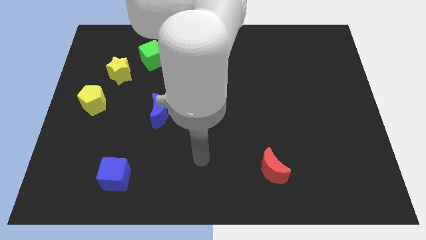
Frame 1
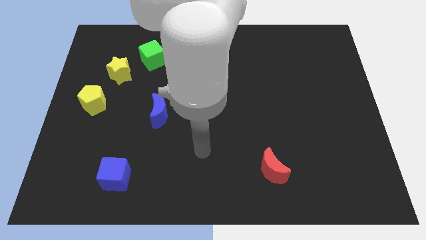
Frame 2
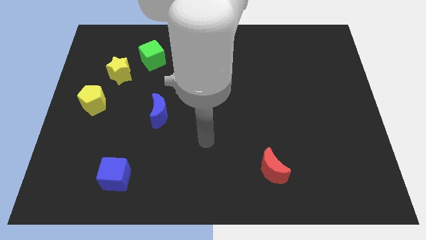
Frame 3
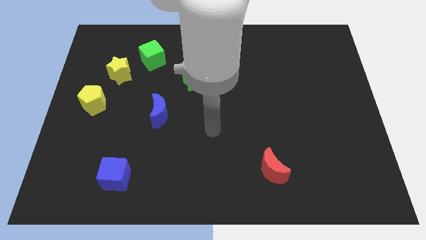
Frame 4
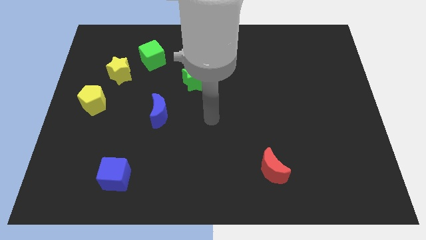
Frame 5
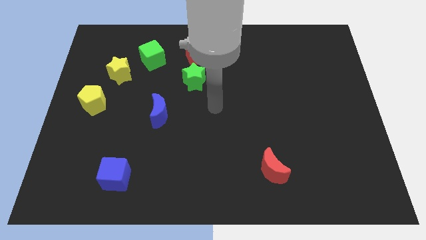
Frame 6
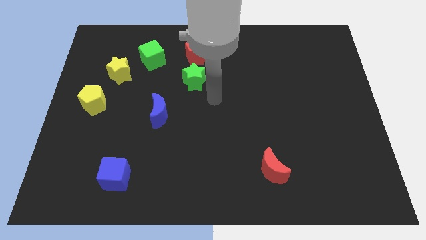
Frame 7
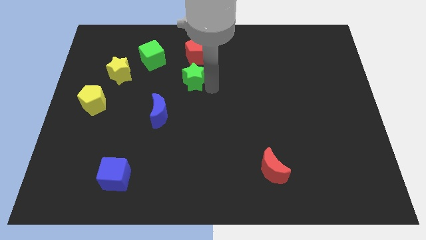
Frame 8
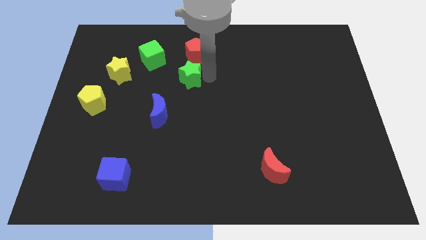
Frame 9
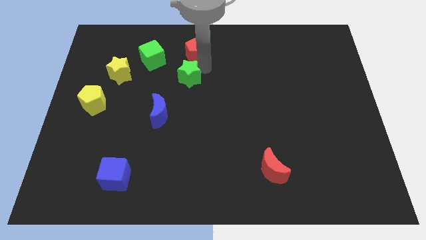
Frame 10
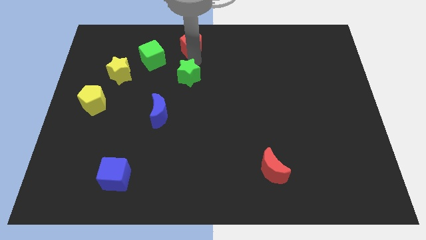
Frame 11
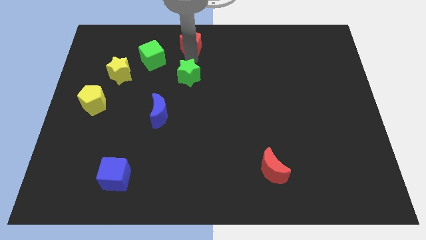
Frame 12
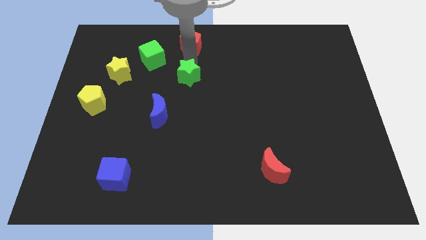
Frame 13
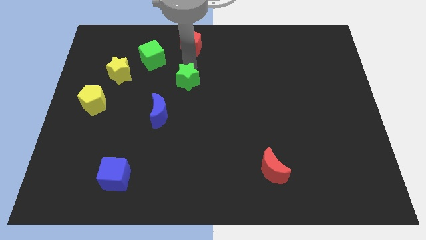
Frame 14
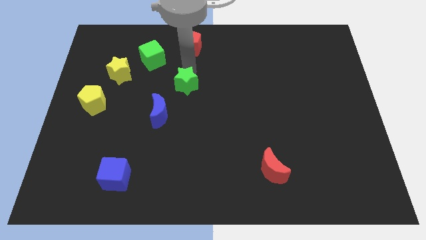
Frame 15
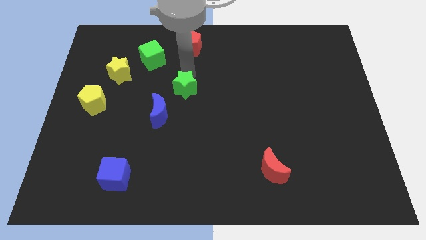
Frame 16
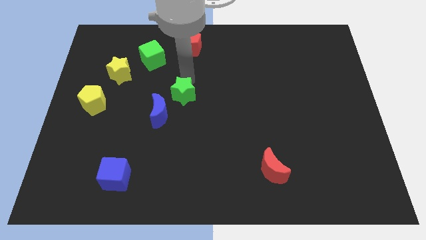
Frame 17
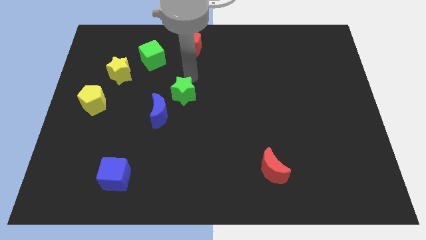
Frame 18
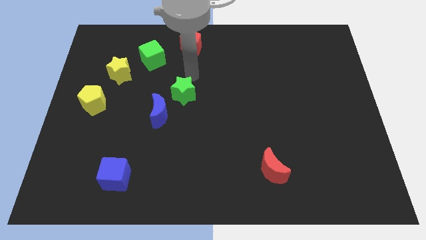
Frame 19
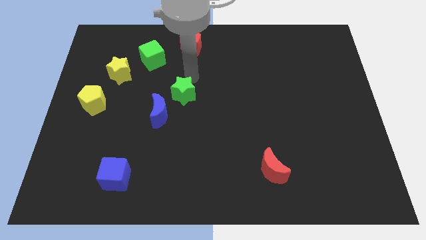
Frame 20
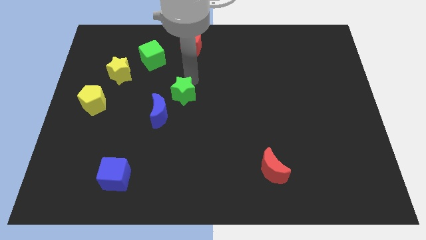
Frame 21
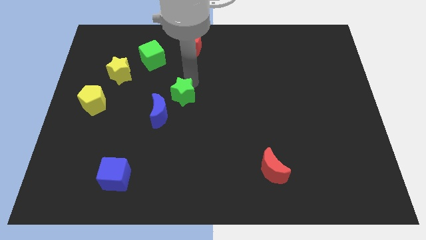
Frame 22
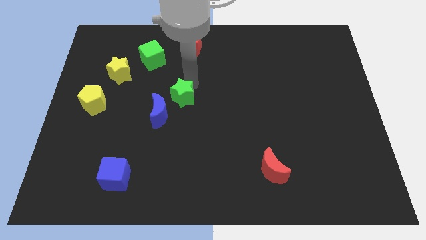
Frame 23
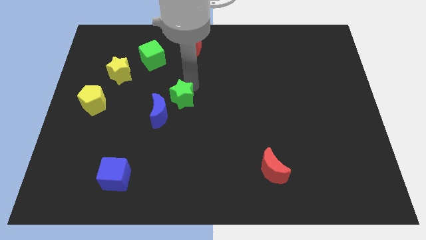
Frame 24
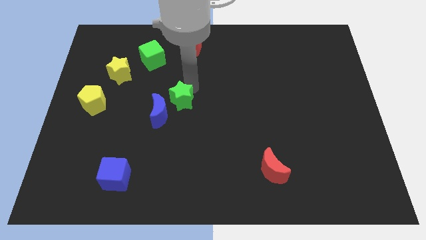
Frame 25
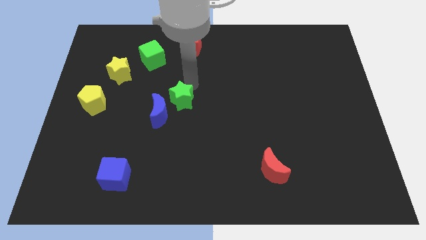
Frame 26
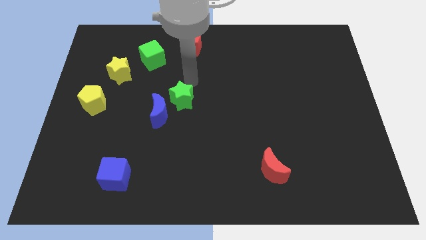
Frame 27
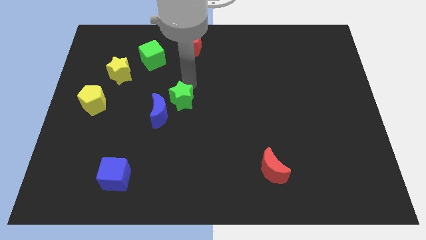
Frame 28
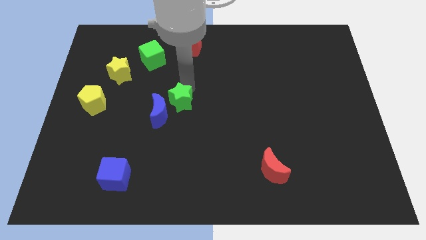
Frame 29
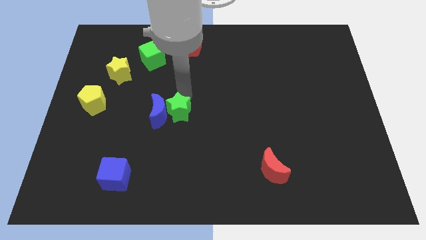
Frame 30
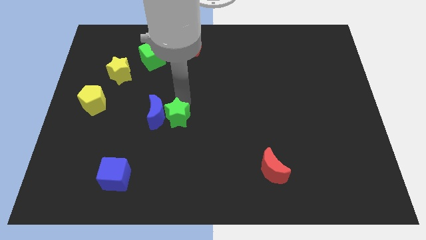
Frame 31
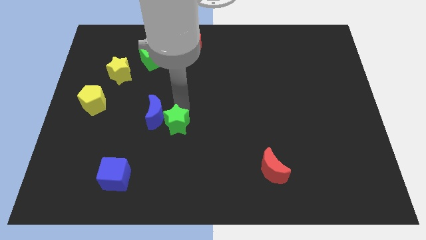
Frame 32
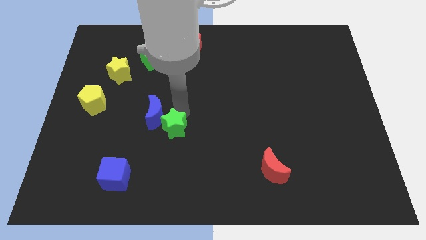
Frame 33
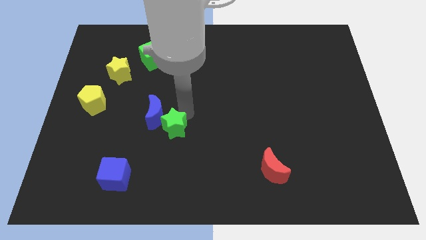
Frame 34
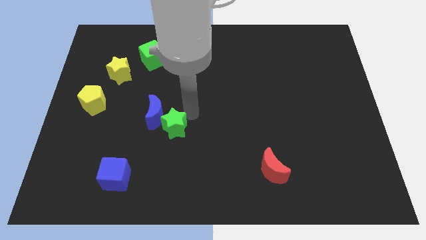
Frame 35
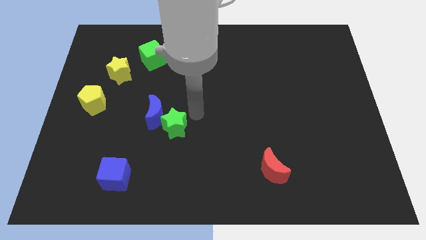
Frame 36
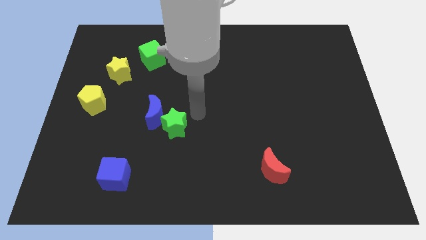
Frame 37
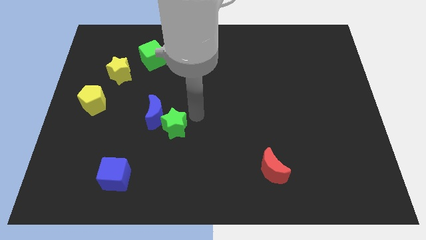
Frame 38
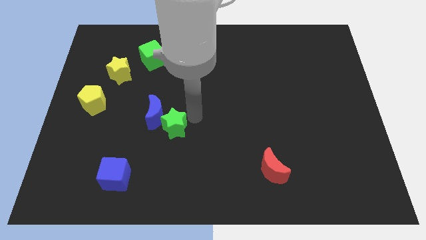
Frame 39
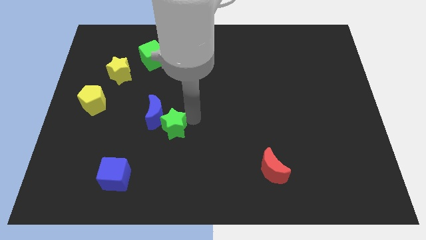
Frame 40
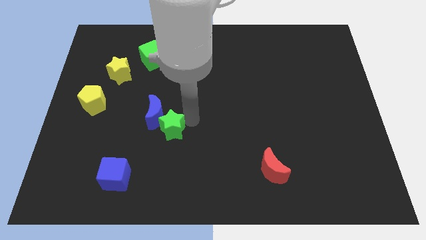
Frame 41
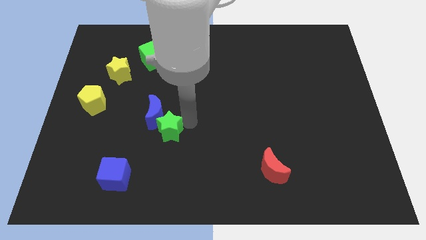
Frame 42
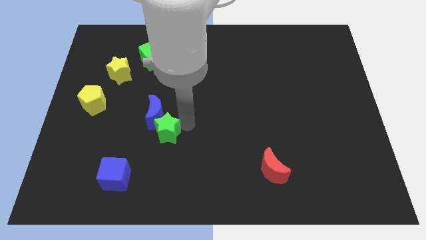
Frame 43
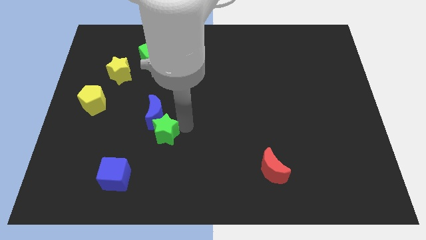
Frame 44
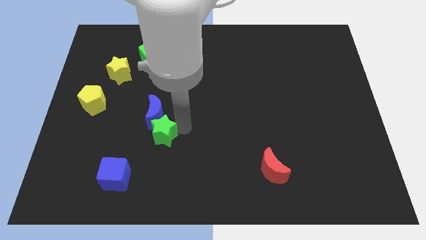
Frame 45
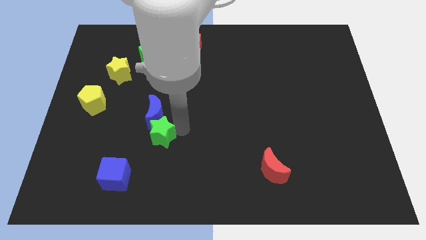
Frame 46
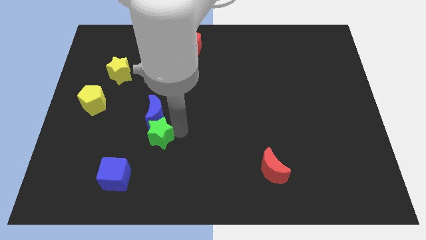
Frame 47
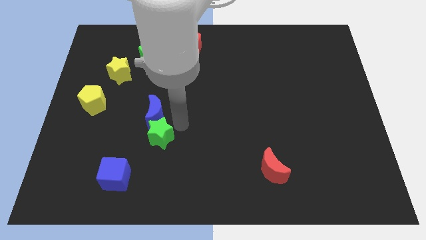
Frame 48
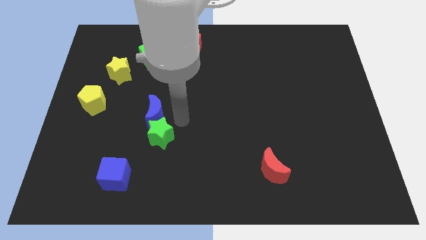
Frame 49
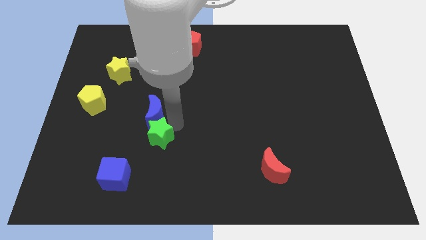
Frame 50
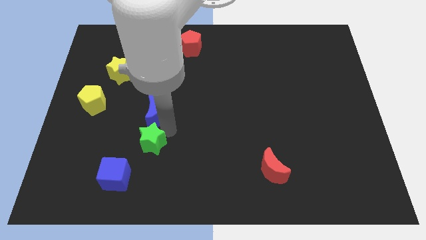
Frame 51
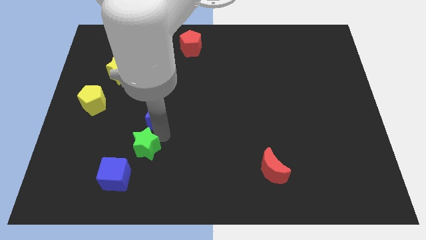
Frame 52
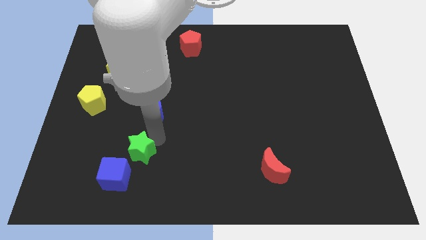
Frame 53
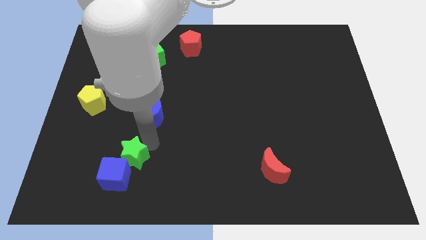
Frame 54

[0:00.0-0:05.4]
push the green star to the blue cube

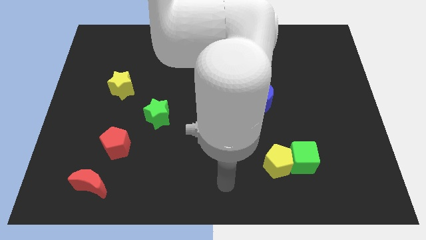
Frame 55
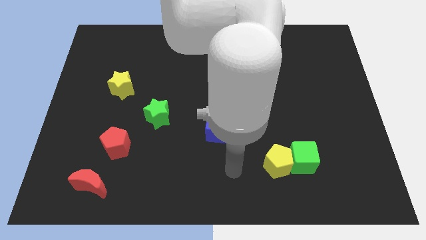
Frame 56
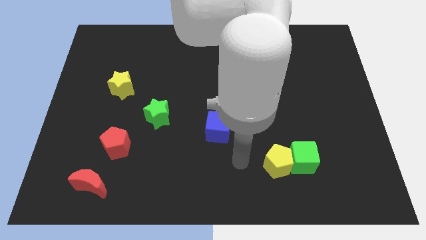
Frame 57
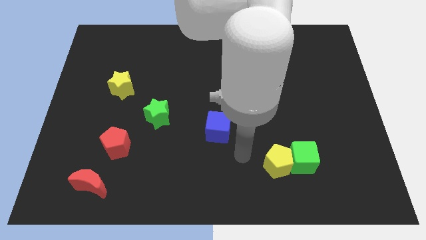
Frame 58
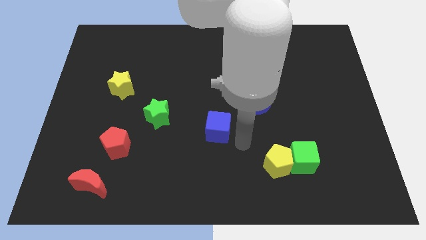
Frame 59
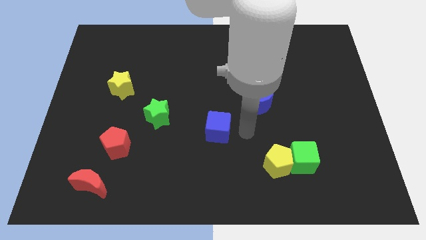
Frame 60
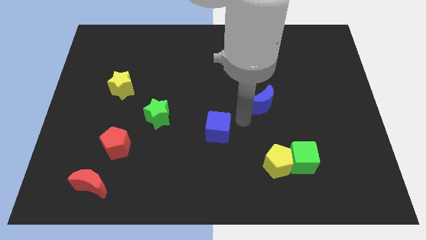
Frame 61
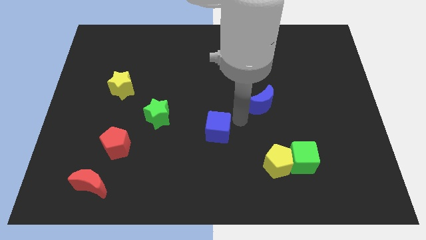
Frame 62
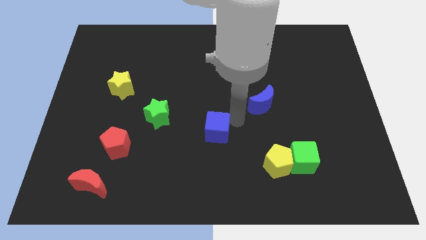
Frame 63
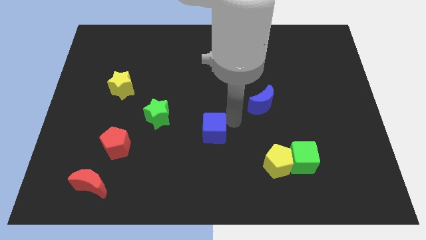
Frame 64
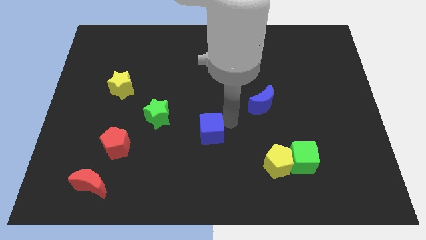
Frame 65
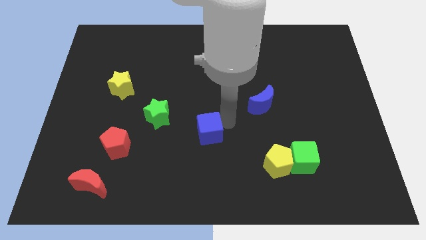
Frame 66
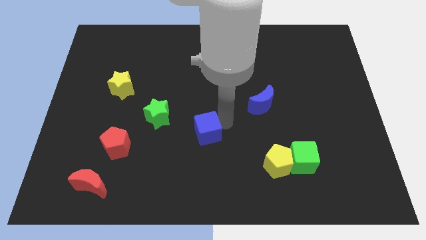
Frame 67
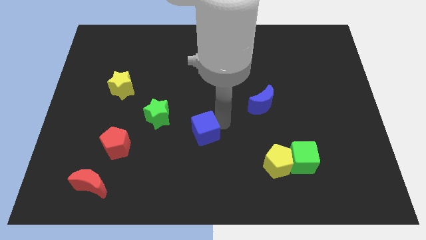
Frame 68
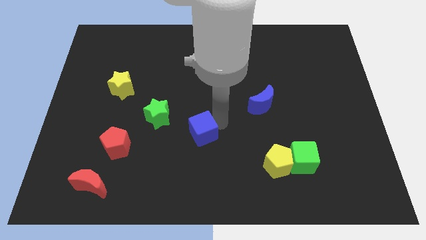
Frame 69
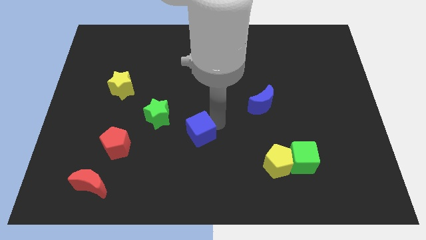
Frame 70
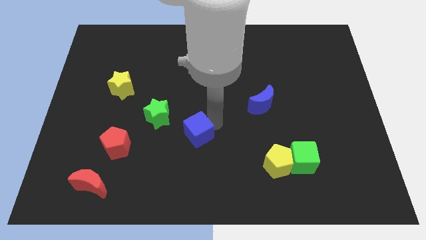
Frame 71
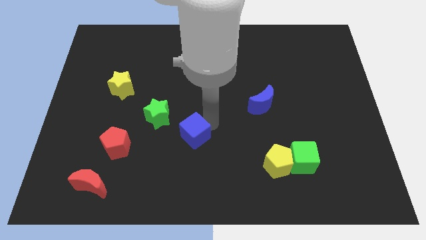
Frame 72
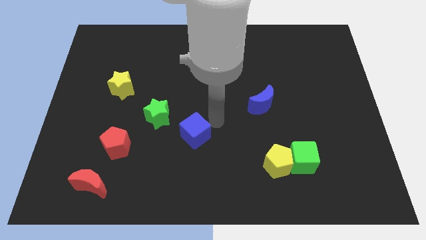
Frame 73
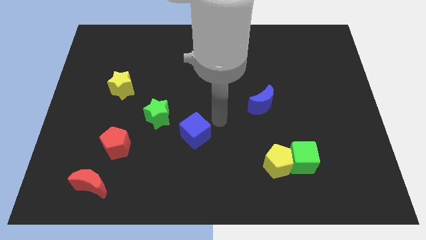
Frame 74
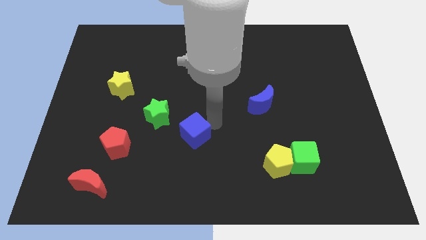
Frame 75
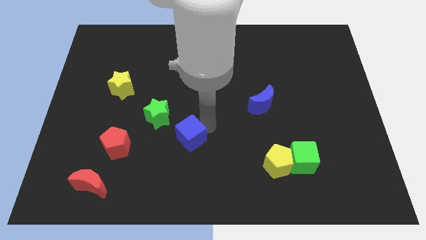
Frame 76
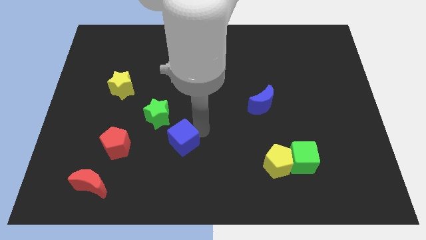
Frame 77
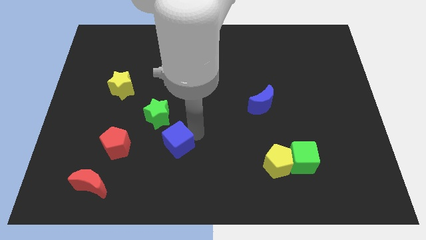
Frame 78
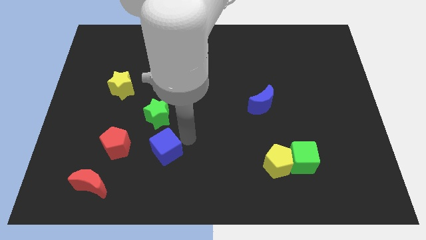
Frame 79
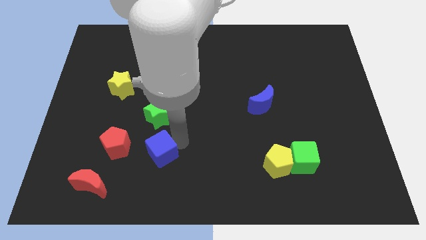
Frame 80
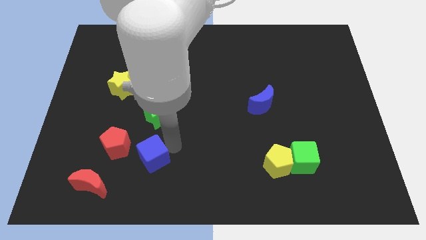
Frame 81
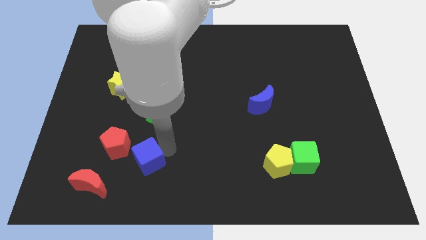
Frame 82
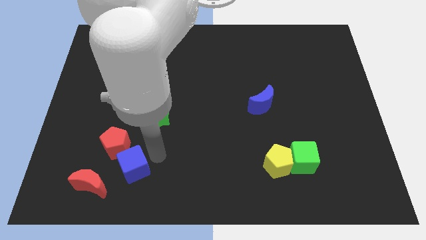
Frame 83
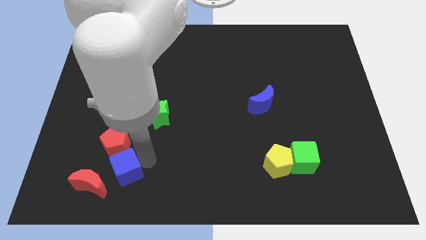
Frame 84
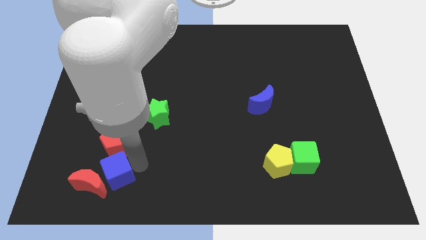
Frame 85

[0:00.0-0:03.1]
put the blue cube towards the red moon
